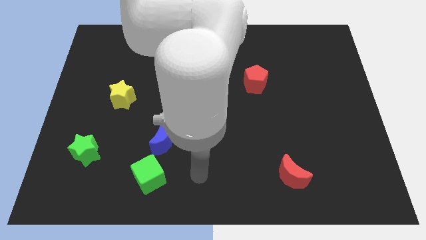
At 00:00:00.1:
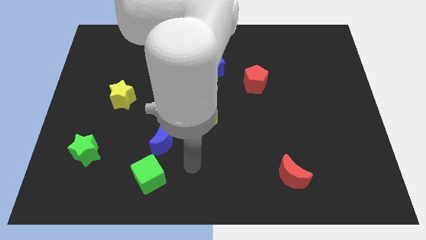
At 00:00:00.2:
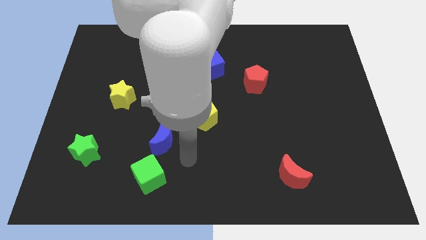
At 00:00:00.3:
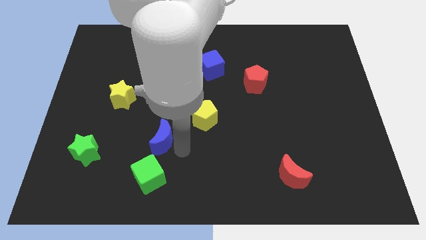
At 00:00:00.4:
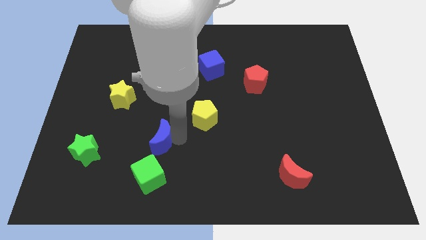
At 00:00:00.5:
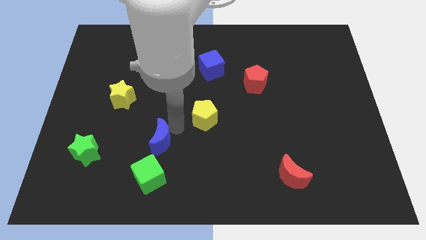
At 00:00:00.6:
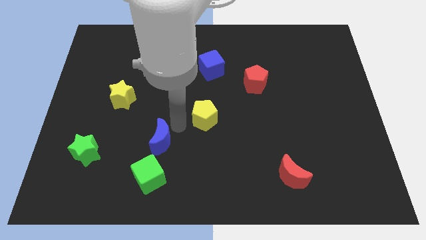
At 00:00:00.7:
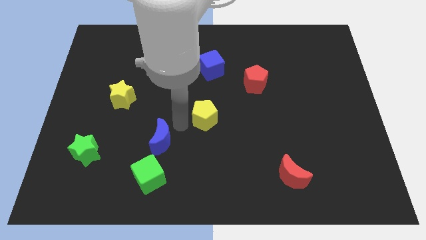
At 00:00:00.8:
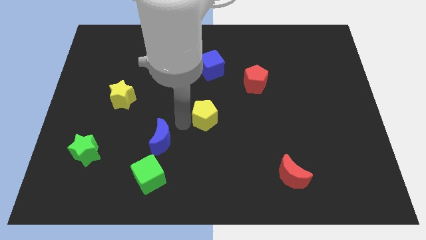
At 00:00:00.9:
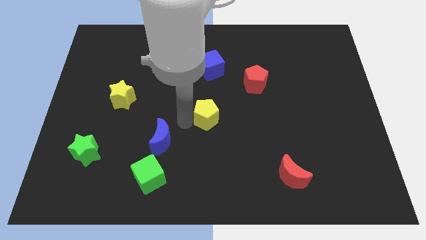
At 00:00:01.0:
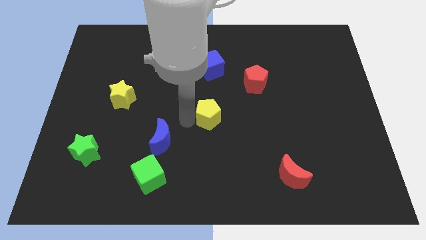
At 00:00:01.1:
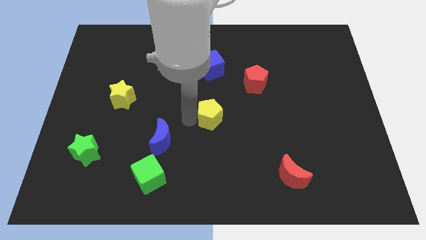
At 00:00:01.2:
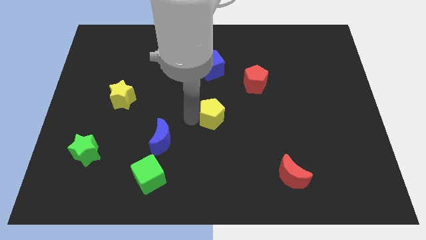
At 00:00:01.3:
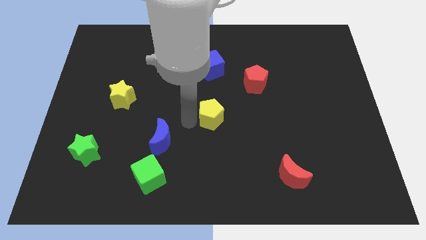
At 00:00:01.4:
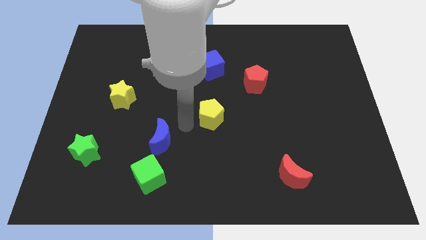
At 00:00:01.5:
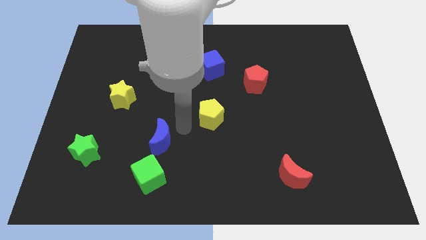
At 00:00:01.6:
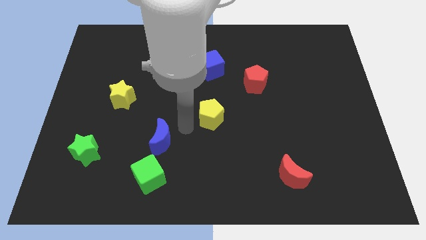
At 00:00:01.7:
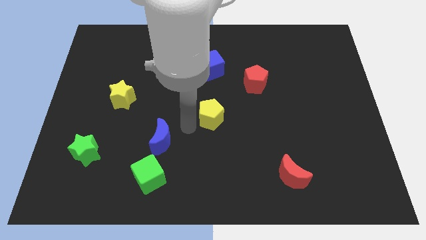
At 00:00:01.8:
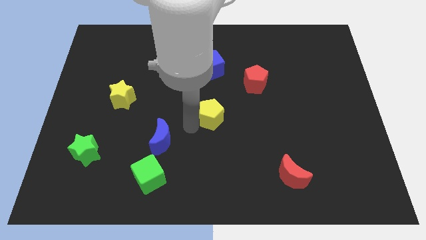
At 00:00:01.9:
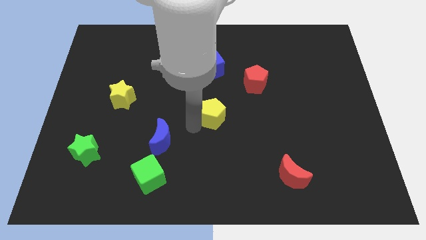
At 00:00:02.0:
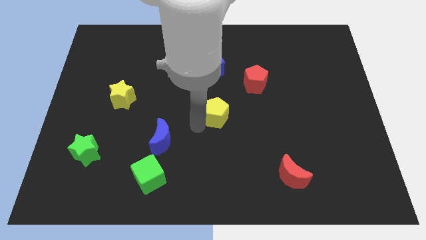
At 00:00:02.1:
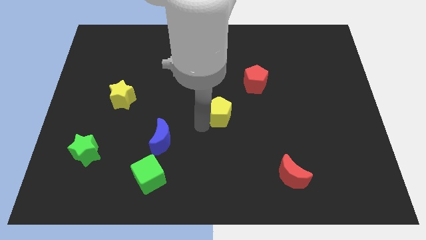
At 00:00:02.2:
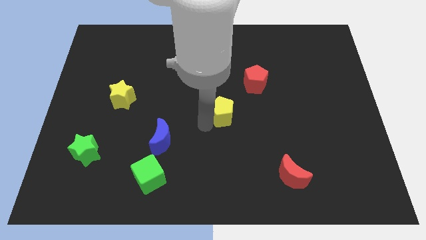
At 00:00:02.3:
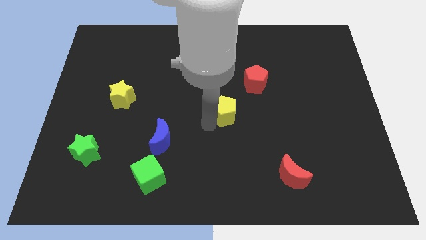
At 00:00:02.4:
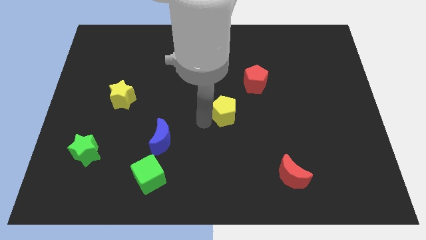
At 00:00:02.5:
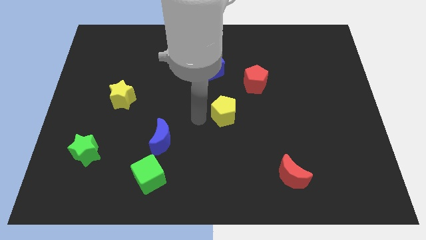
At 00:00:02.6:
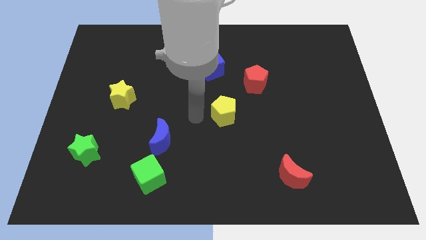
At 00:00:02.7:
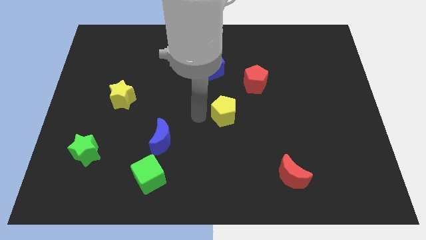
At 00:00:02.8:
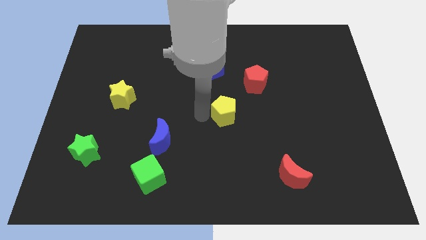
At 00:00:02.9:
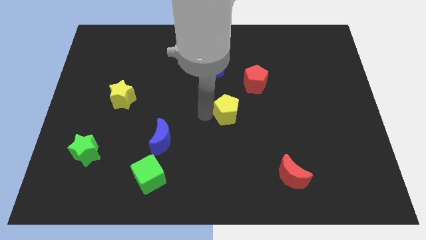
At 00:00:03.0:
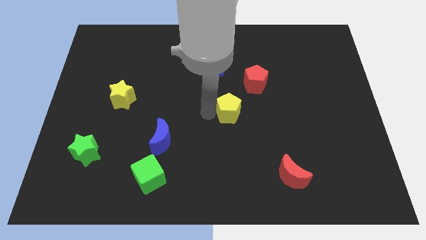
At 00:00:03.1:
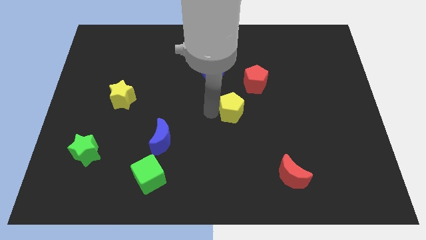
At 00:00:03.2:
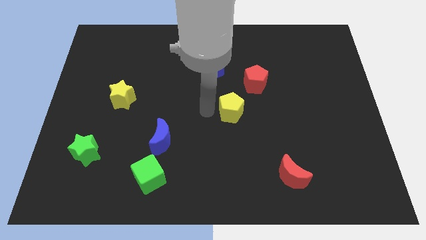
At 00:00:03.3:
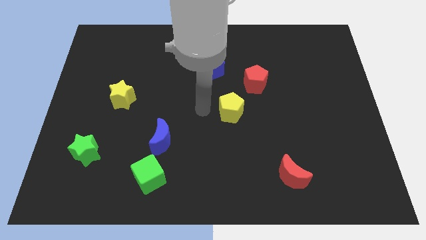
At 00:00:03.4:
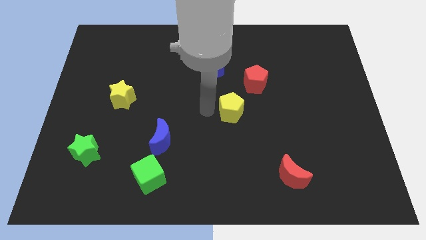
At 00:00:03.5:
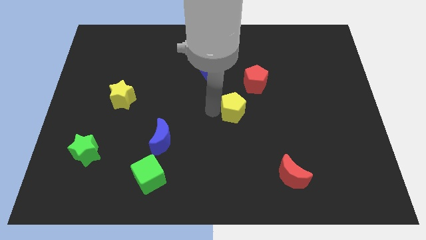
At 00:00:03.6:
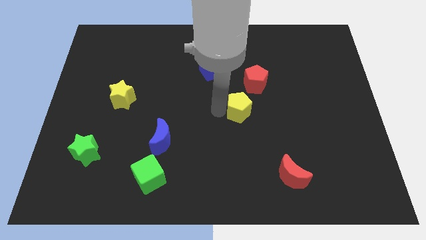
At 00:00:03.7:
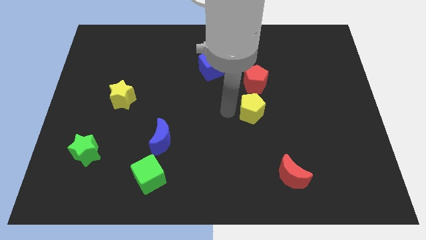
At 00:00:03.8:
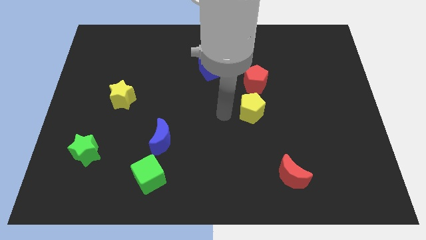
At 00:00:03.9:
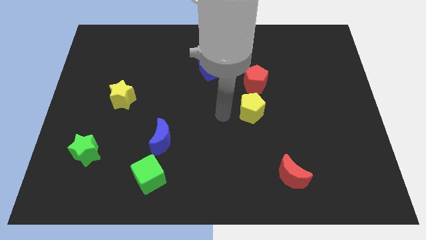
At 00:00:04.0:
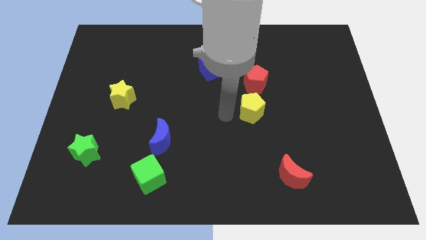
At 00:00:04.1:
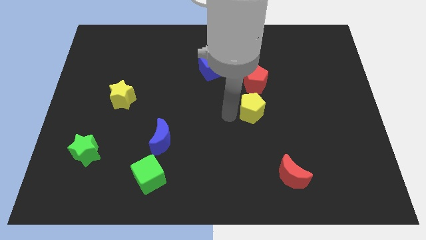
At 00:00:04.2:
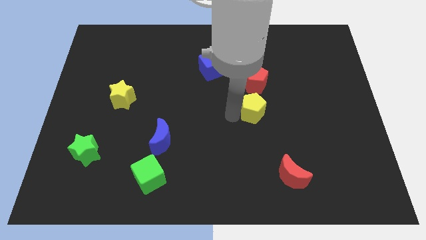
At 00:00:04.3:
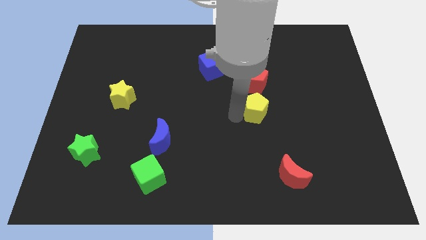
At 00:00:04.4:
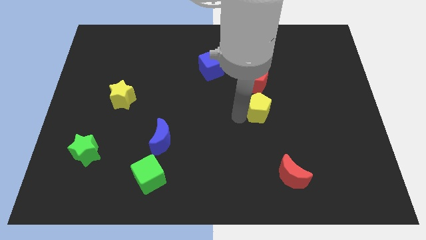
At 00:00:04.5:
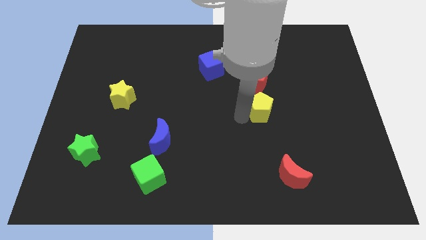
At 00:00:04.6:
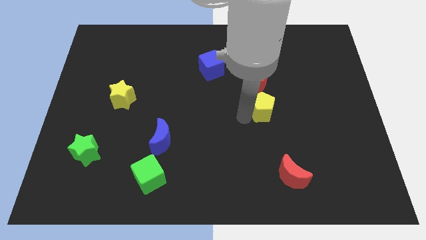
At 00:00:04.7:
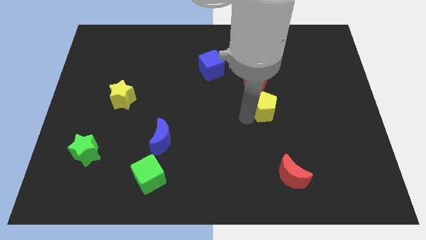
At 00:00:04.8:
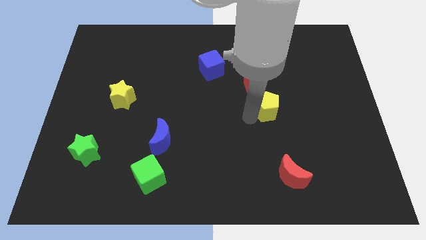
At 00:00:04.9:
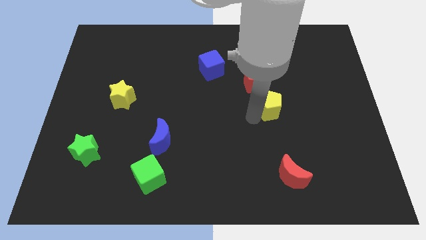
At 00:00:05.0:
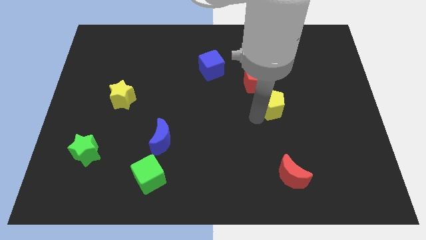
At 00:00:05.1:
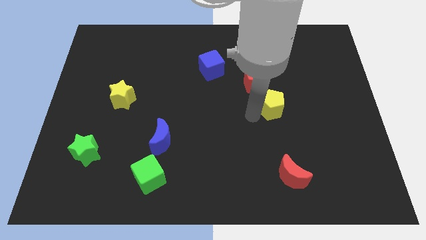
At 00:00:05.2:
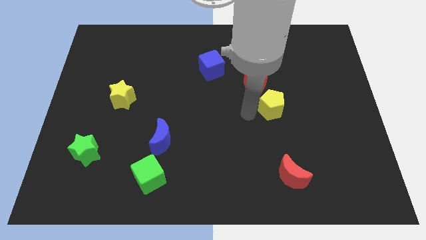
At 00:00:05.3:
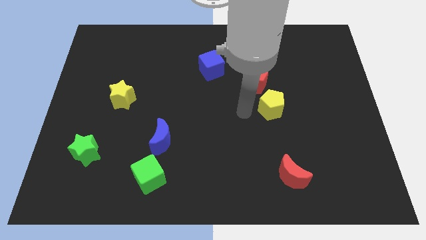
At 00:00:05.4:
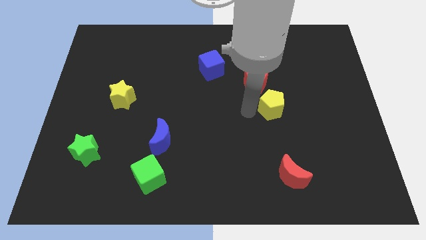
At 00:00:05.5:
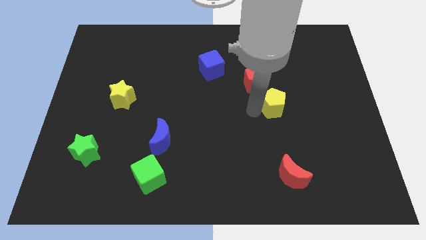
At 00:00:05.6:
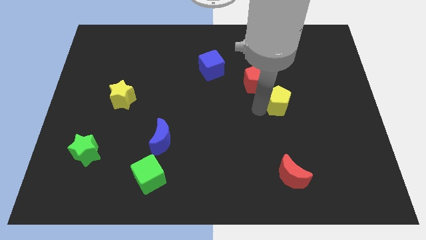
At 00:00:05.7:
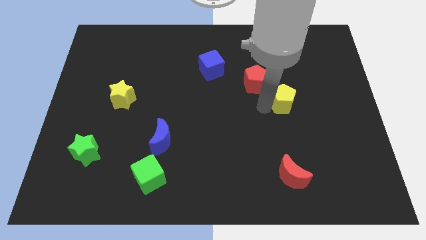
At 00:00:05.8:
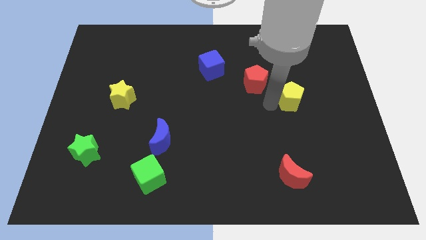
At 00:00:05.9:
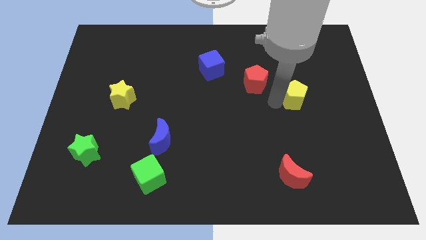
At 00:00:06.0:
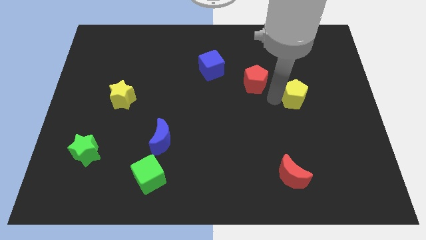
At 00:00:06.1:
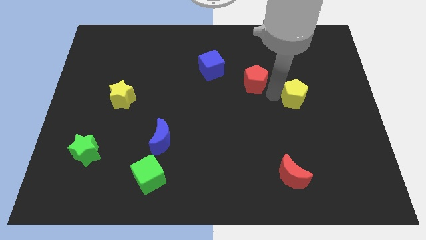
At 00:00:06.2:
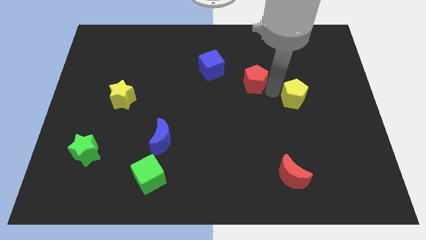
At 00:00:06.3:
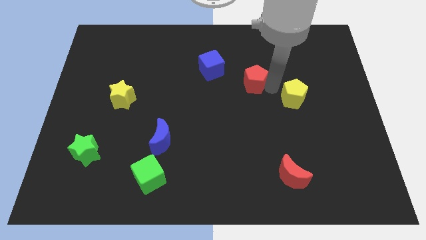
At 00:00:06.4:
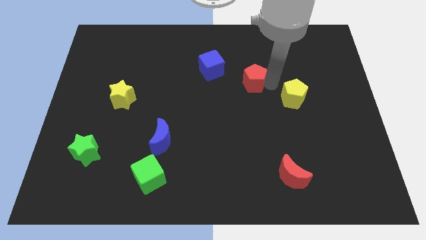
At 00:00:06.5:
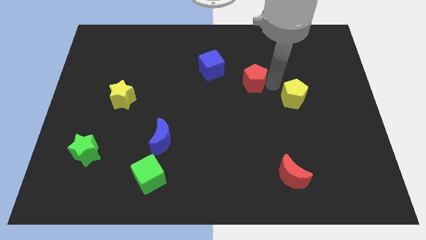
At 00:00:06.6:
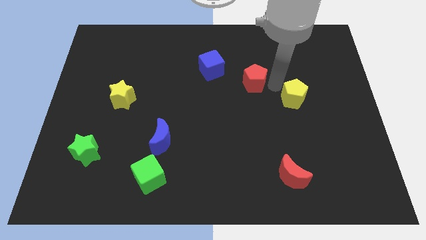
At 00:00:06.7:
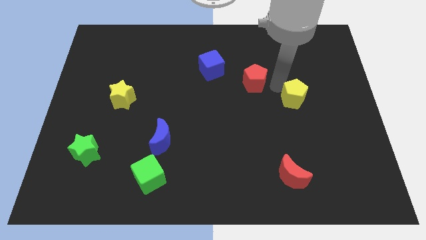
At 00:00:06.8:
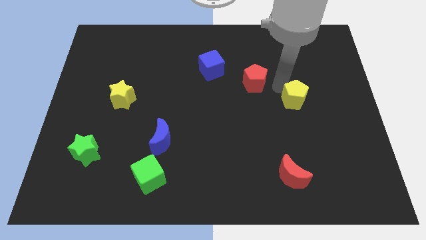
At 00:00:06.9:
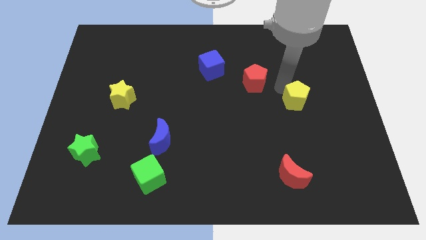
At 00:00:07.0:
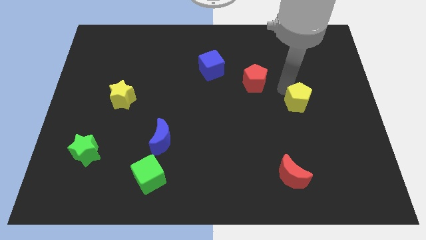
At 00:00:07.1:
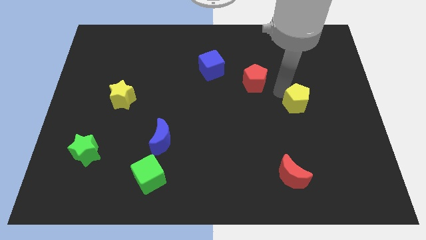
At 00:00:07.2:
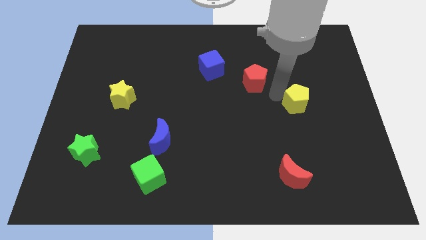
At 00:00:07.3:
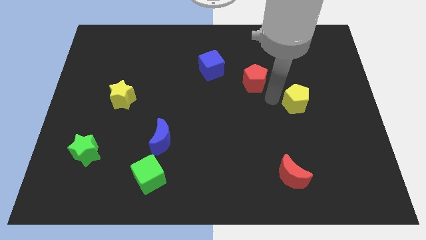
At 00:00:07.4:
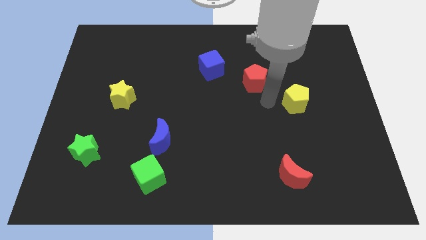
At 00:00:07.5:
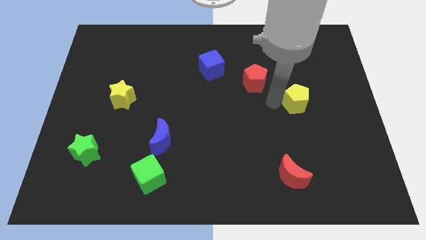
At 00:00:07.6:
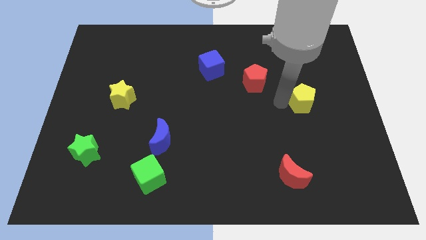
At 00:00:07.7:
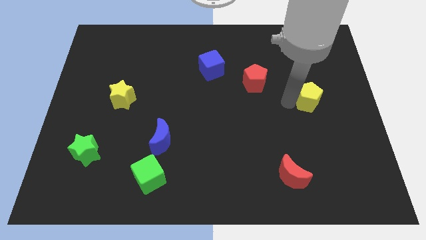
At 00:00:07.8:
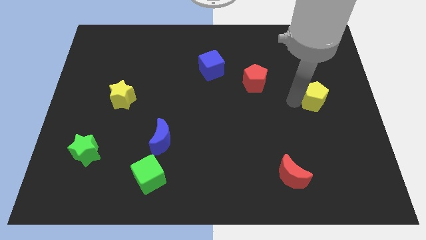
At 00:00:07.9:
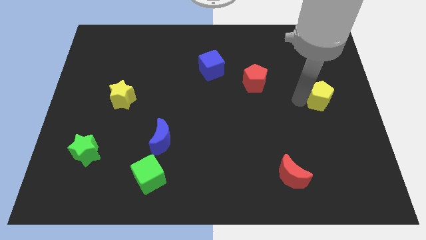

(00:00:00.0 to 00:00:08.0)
slide the yellow pentagon to the center right

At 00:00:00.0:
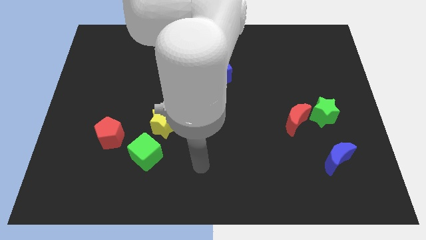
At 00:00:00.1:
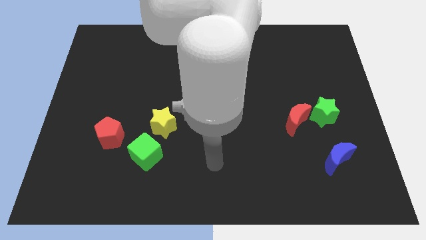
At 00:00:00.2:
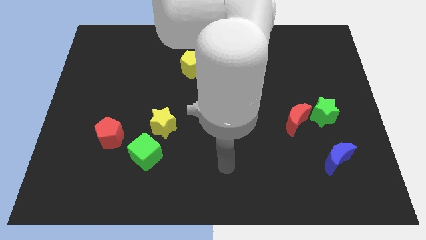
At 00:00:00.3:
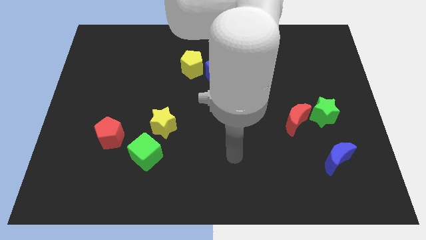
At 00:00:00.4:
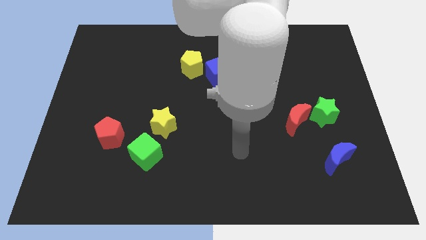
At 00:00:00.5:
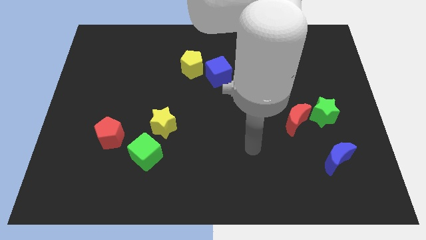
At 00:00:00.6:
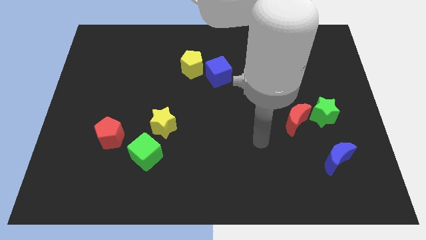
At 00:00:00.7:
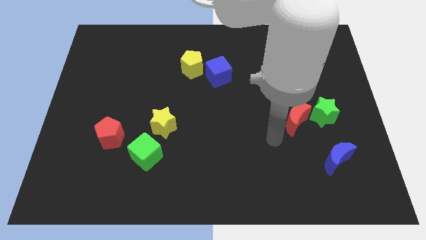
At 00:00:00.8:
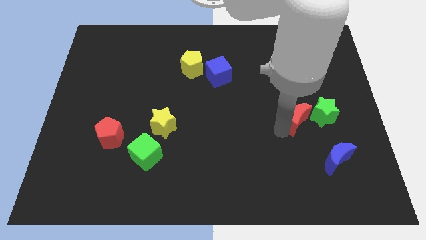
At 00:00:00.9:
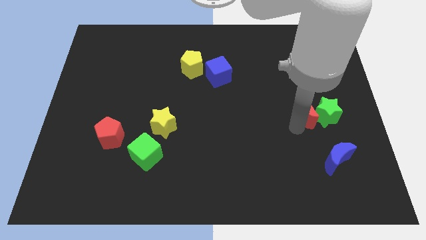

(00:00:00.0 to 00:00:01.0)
slide the green star to the right side
